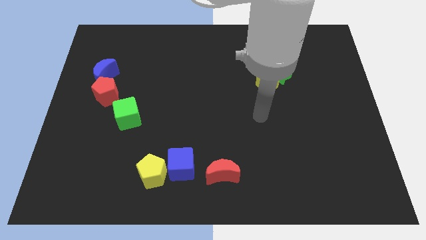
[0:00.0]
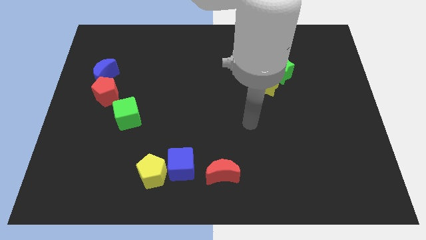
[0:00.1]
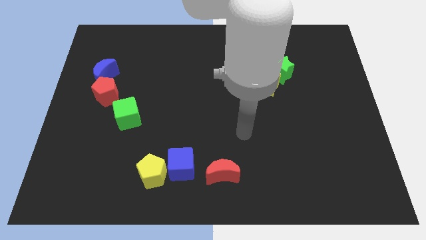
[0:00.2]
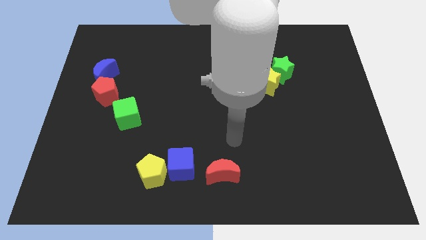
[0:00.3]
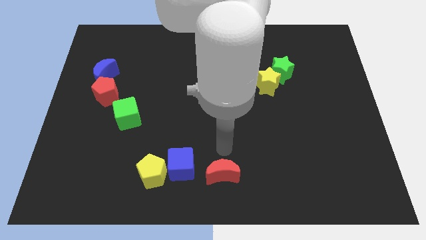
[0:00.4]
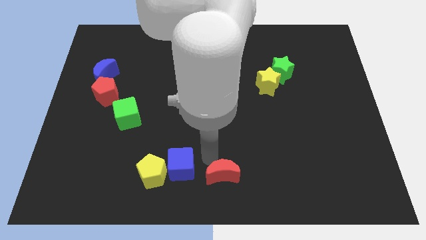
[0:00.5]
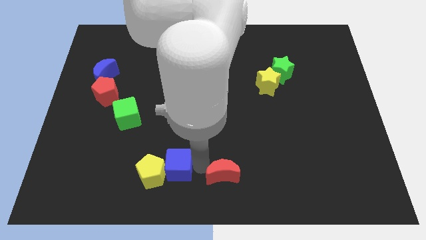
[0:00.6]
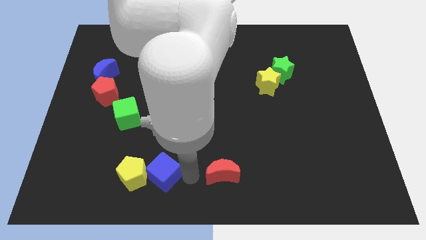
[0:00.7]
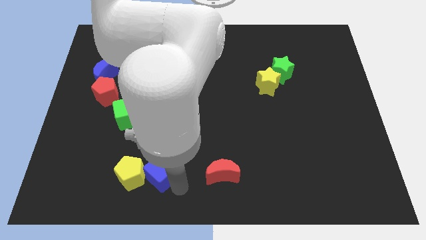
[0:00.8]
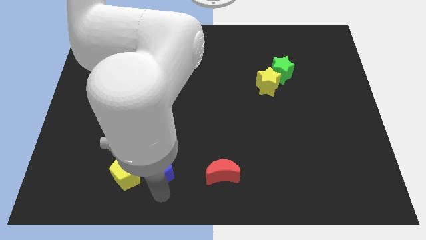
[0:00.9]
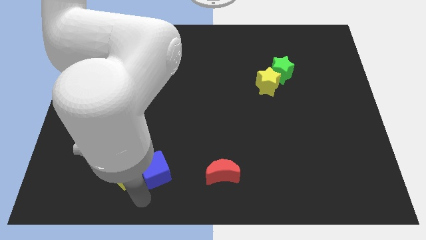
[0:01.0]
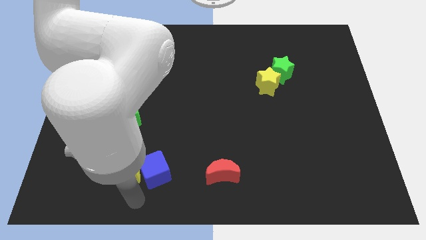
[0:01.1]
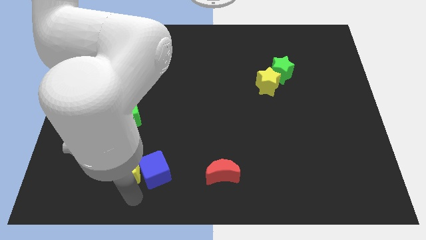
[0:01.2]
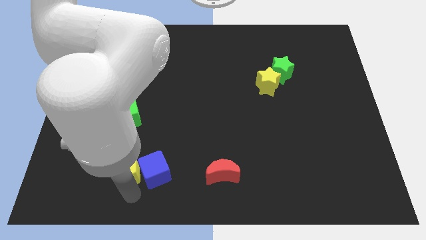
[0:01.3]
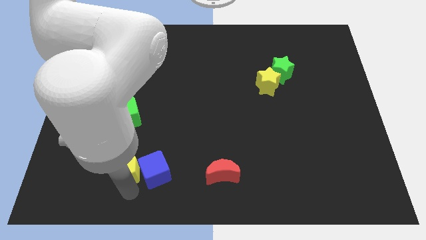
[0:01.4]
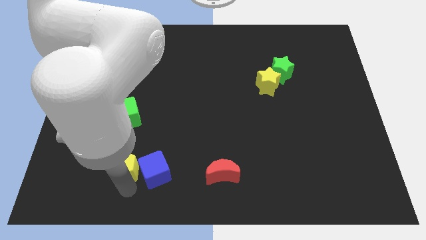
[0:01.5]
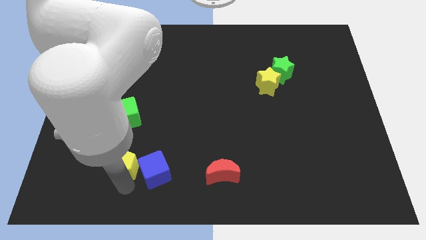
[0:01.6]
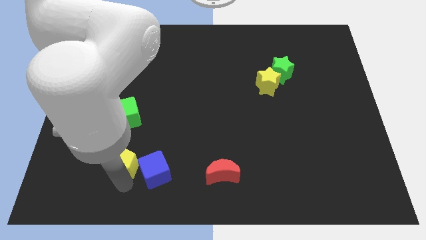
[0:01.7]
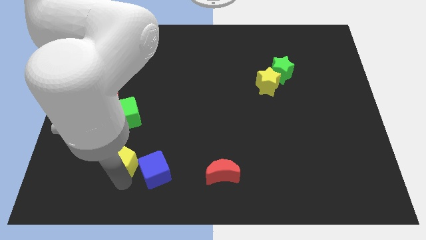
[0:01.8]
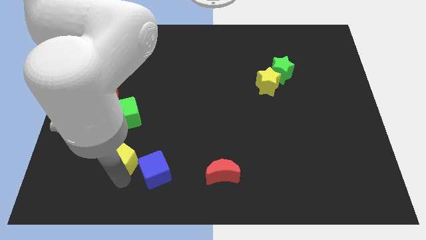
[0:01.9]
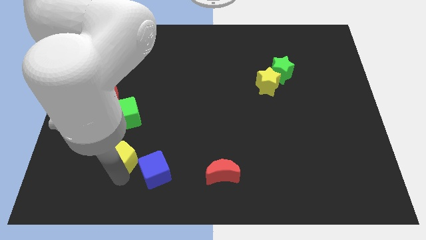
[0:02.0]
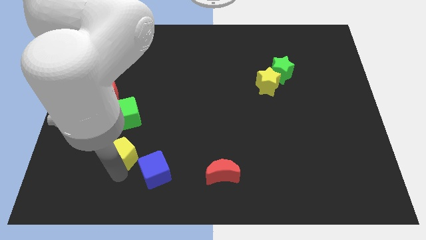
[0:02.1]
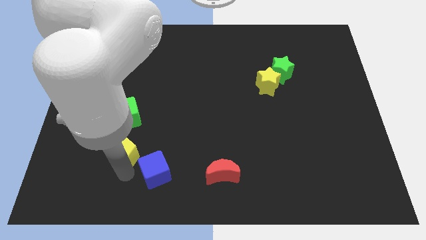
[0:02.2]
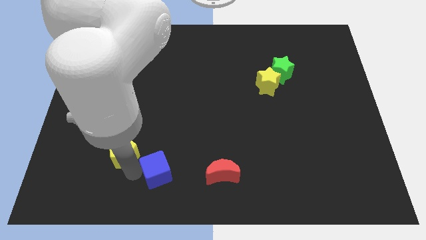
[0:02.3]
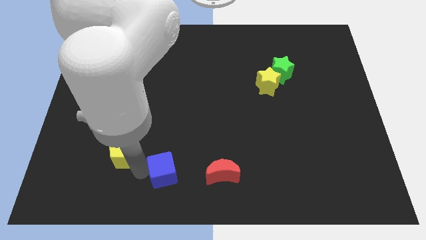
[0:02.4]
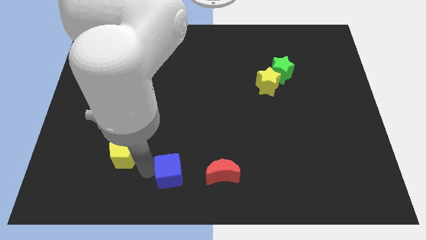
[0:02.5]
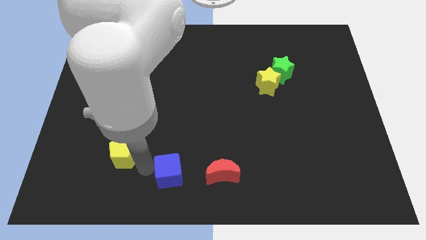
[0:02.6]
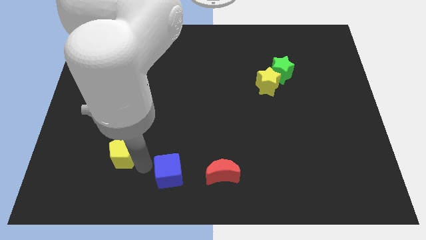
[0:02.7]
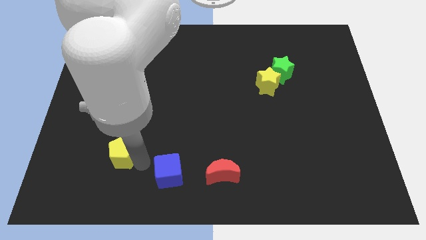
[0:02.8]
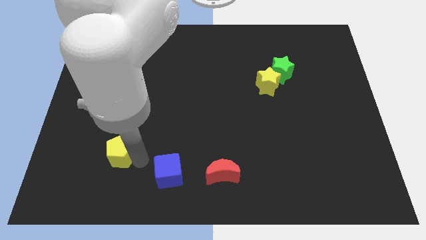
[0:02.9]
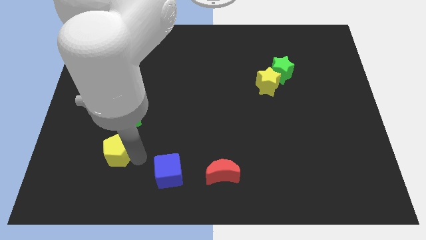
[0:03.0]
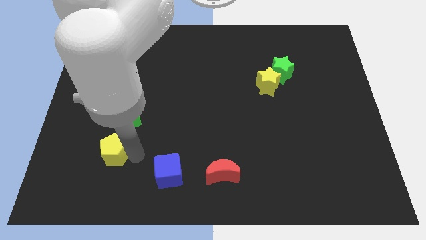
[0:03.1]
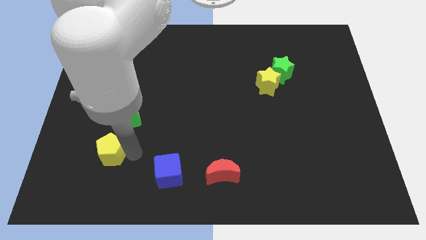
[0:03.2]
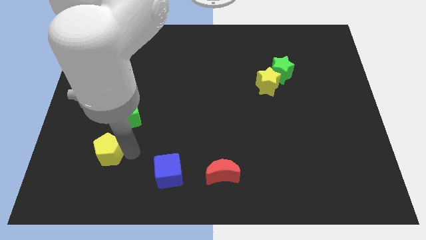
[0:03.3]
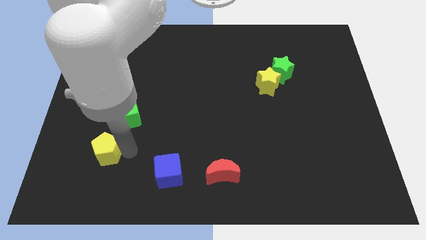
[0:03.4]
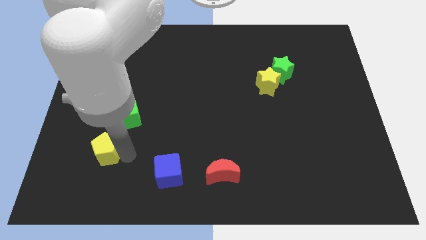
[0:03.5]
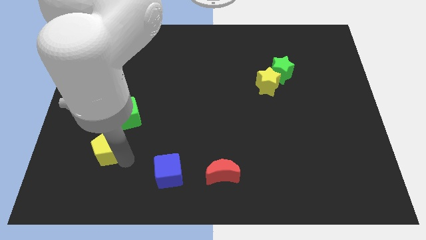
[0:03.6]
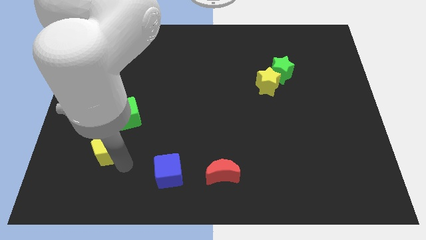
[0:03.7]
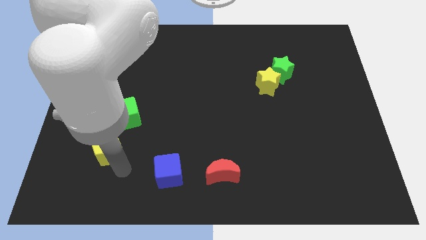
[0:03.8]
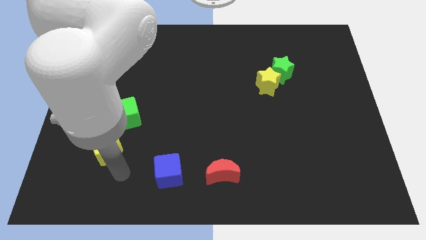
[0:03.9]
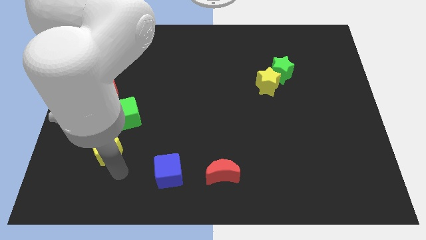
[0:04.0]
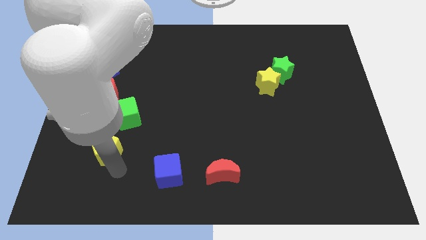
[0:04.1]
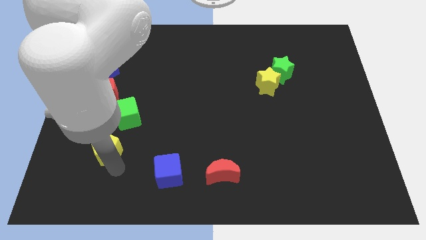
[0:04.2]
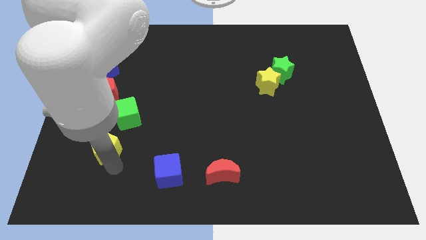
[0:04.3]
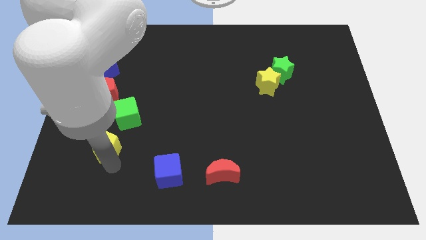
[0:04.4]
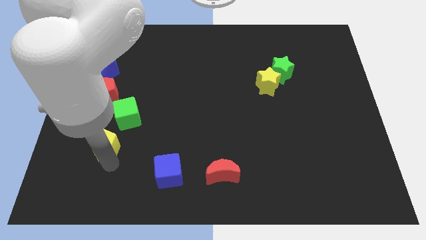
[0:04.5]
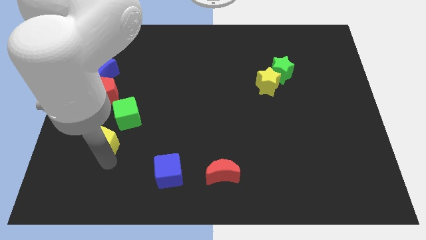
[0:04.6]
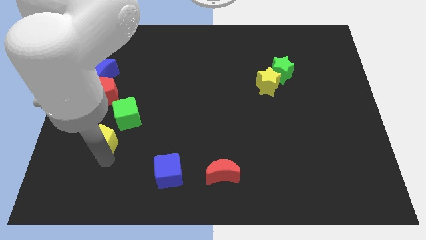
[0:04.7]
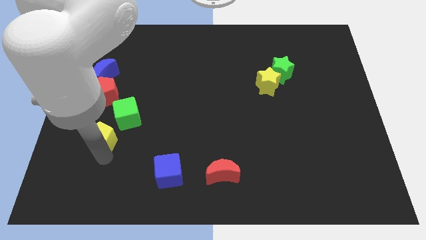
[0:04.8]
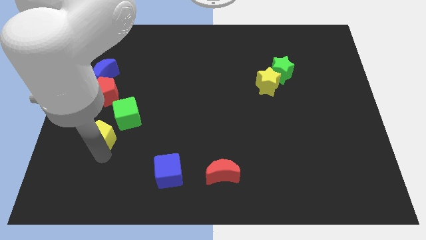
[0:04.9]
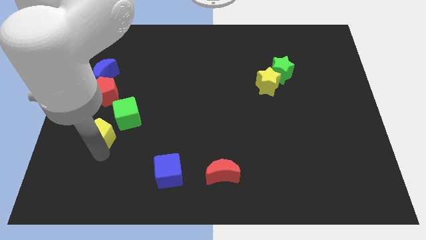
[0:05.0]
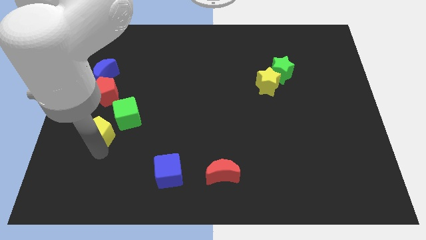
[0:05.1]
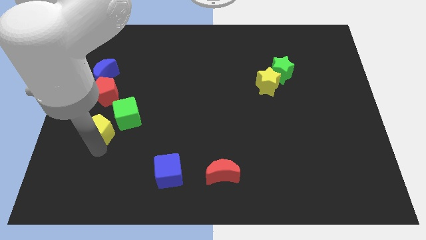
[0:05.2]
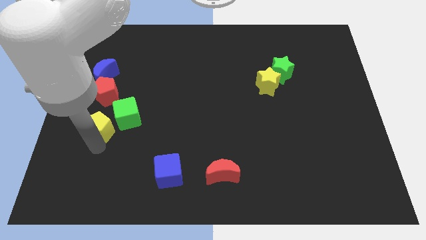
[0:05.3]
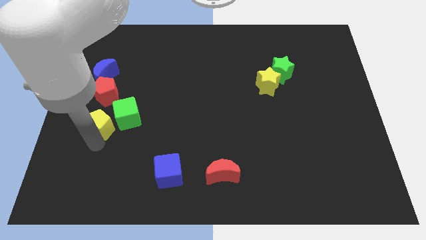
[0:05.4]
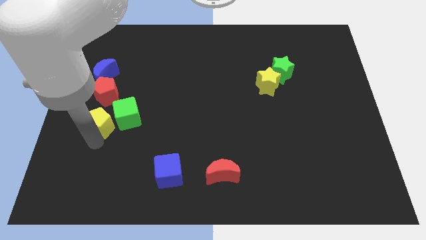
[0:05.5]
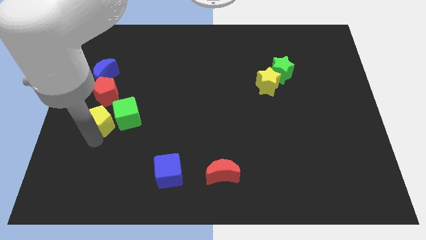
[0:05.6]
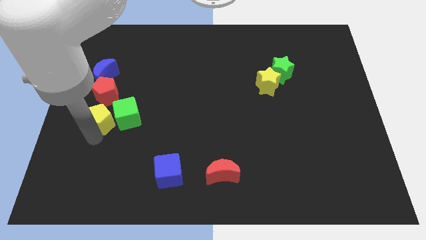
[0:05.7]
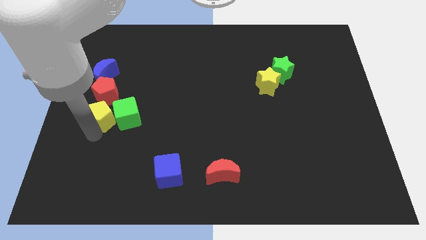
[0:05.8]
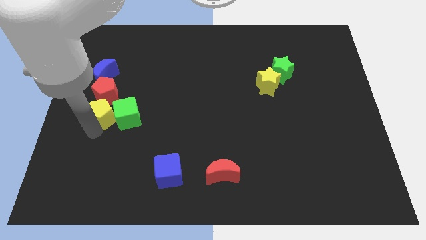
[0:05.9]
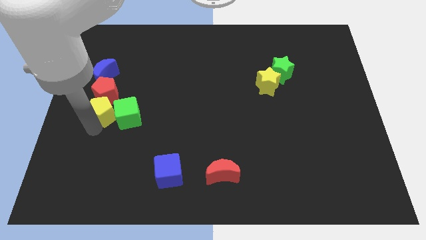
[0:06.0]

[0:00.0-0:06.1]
put the yellow pentagon close to the red pentagon

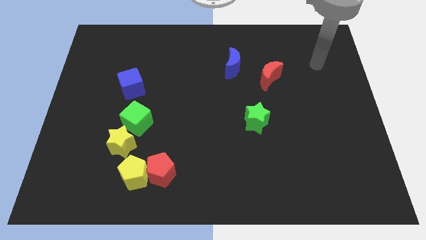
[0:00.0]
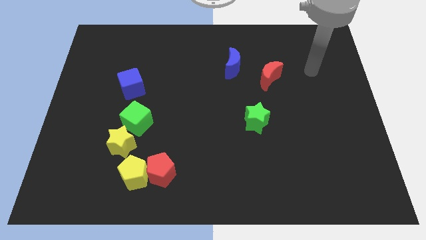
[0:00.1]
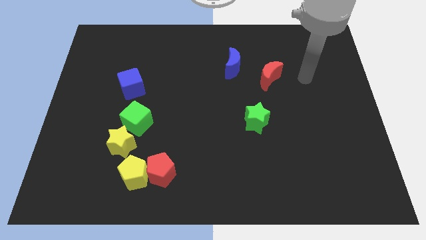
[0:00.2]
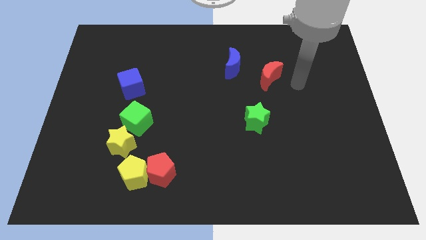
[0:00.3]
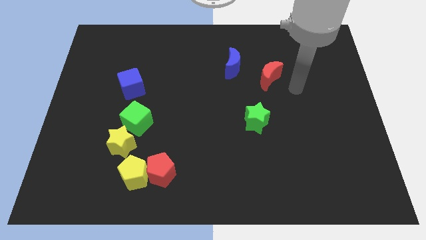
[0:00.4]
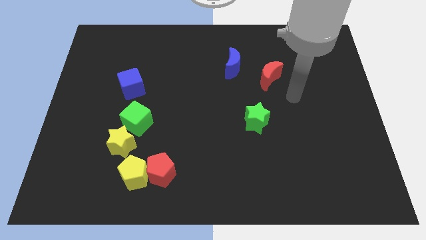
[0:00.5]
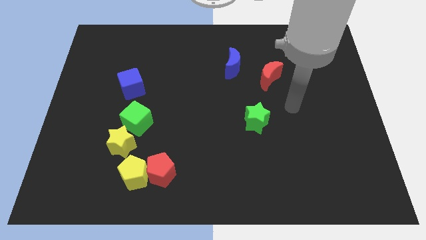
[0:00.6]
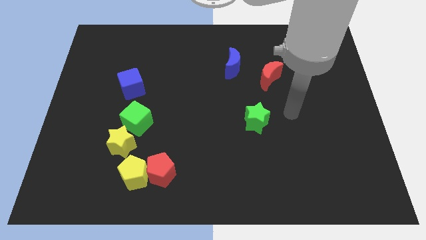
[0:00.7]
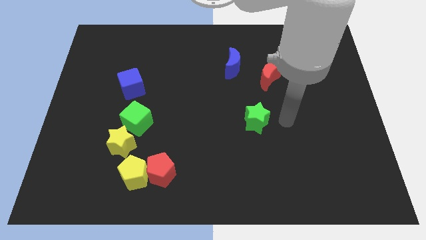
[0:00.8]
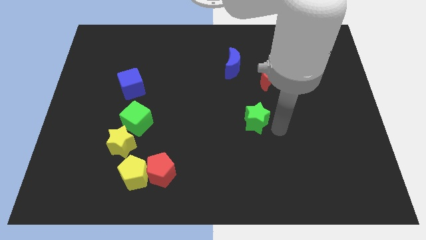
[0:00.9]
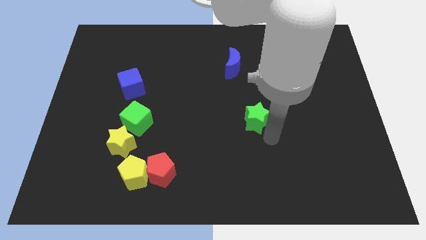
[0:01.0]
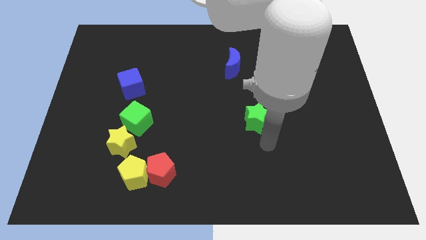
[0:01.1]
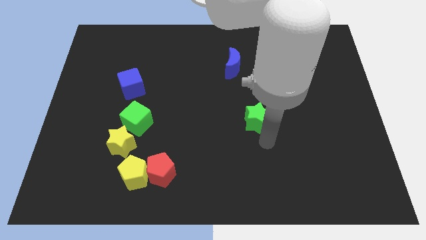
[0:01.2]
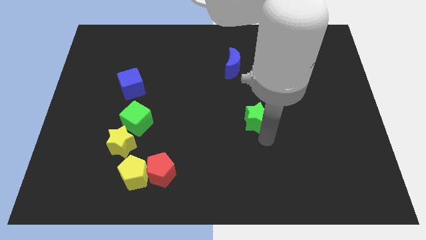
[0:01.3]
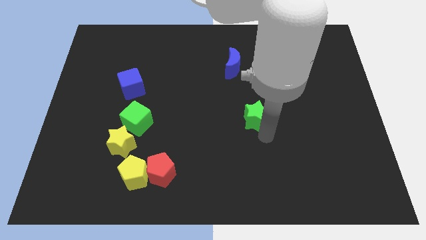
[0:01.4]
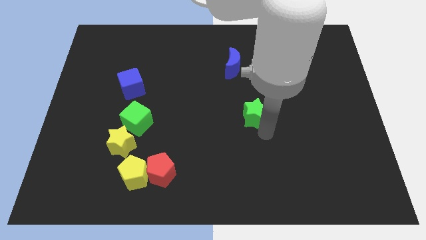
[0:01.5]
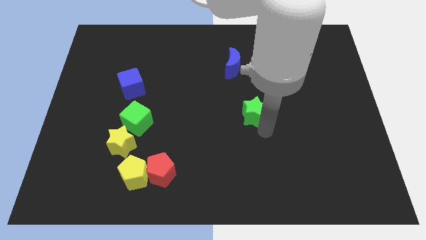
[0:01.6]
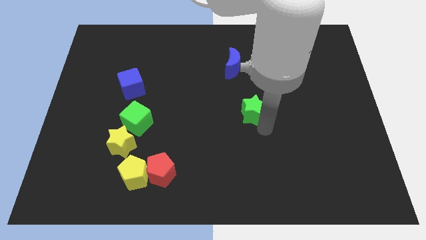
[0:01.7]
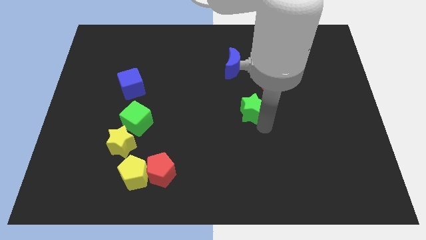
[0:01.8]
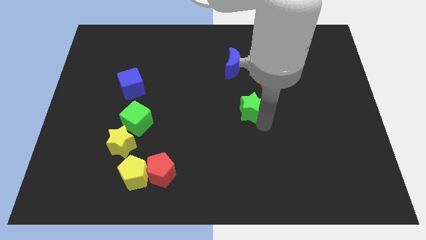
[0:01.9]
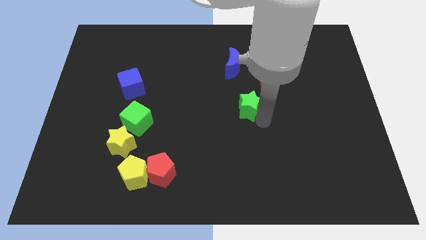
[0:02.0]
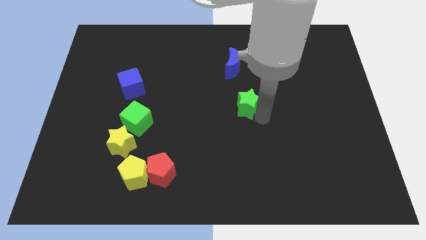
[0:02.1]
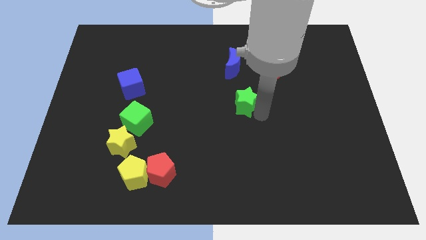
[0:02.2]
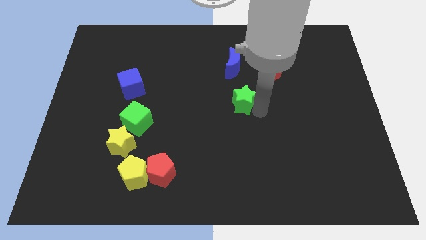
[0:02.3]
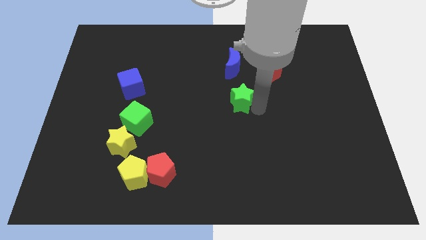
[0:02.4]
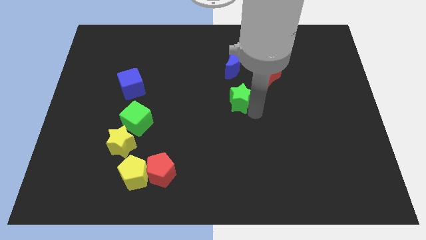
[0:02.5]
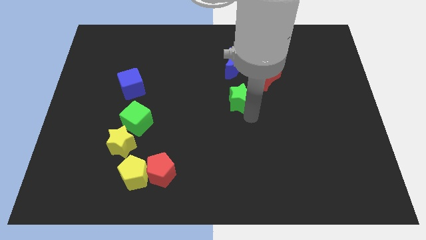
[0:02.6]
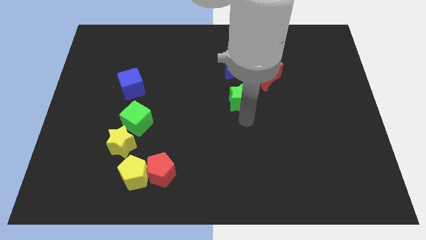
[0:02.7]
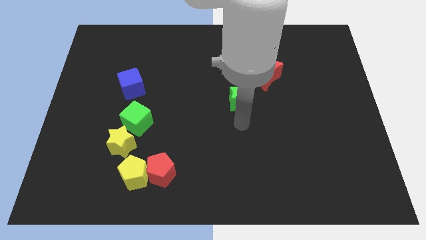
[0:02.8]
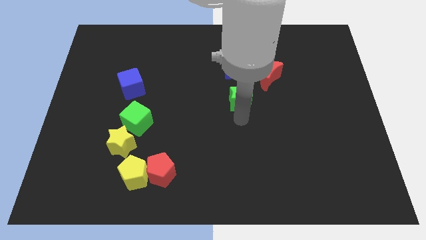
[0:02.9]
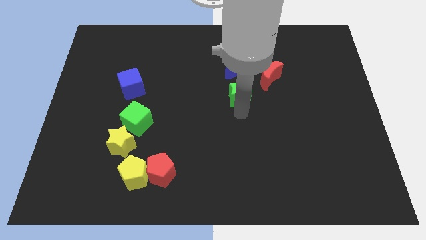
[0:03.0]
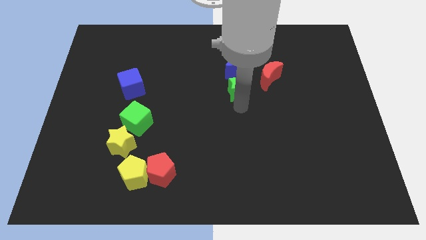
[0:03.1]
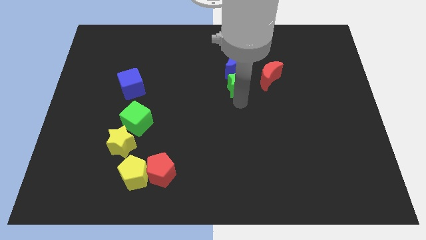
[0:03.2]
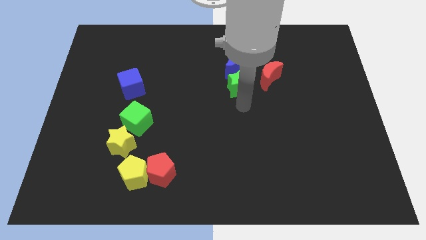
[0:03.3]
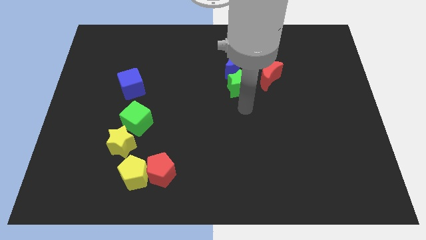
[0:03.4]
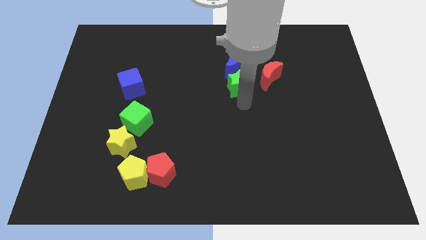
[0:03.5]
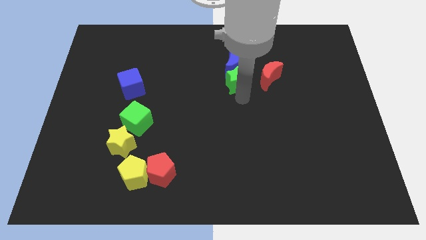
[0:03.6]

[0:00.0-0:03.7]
push the green star next to the blue moon
